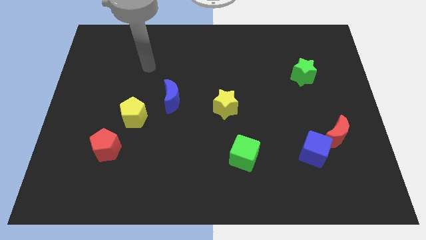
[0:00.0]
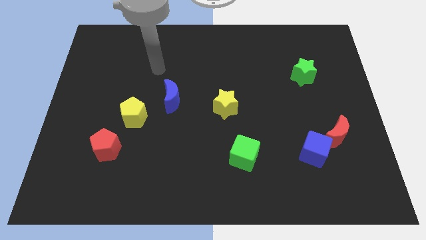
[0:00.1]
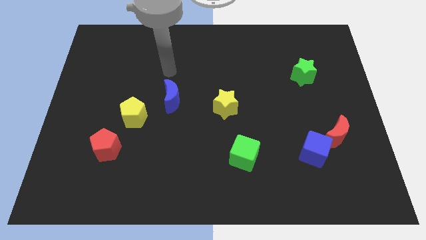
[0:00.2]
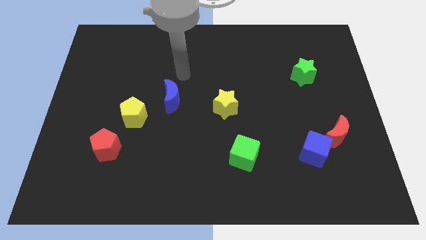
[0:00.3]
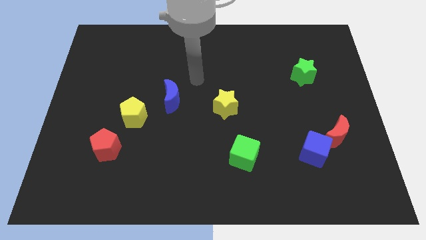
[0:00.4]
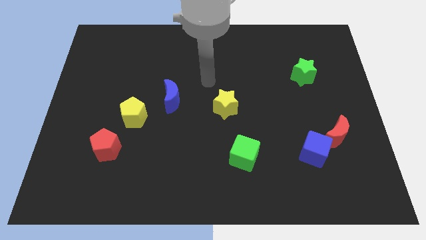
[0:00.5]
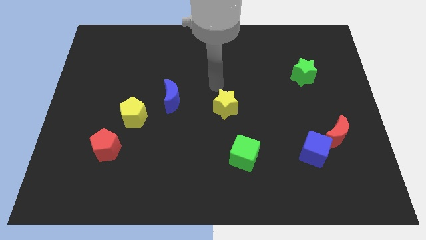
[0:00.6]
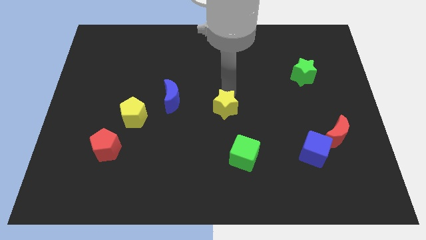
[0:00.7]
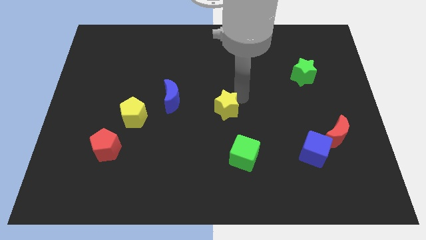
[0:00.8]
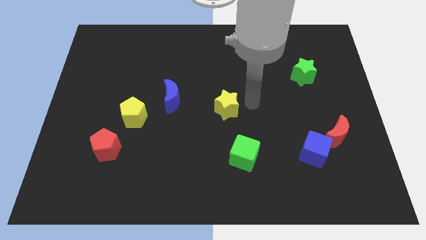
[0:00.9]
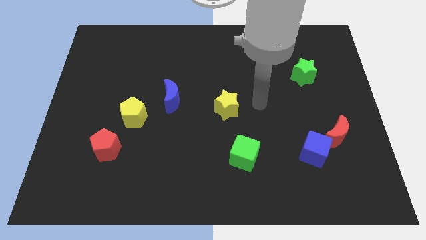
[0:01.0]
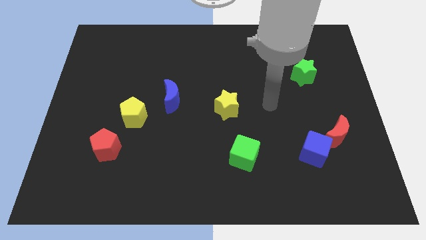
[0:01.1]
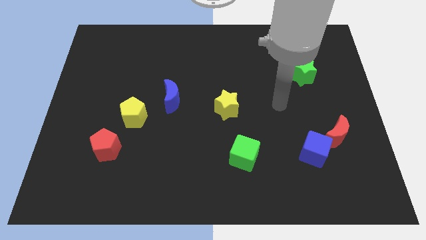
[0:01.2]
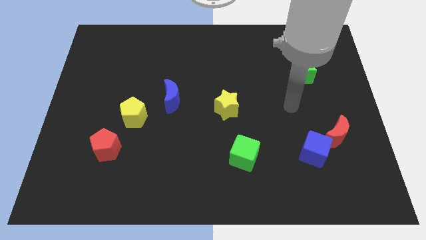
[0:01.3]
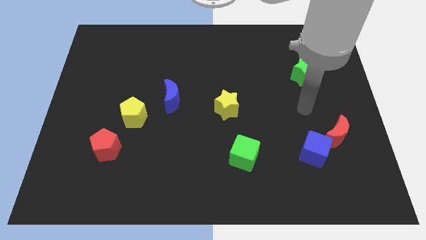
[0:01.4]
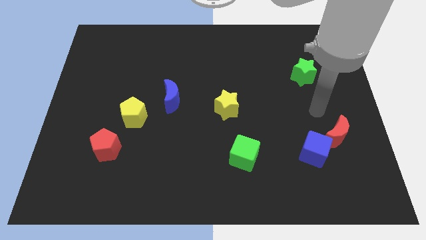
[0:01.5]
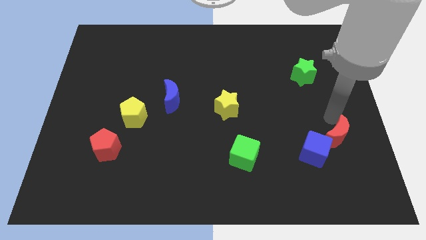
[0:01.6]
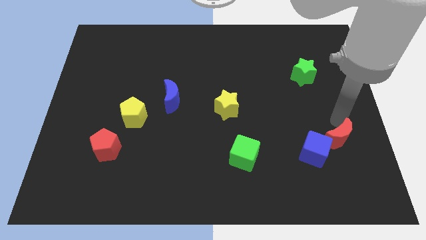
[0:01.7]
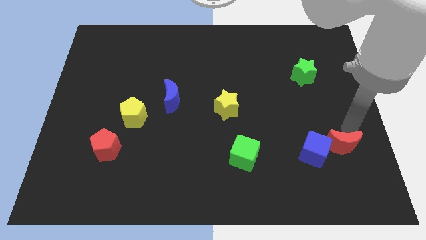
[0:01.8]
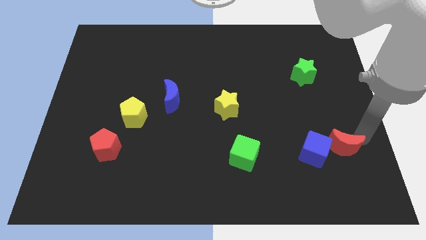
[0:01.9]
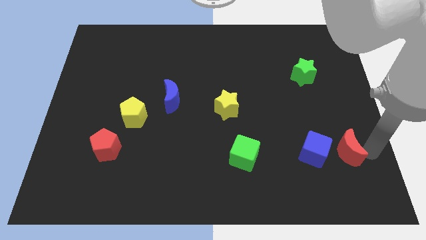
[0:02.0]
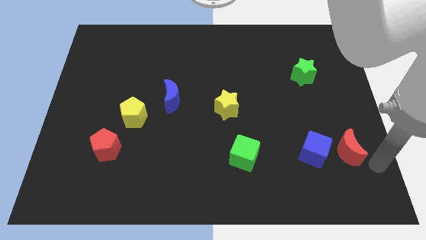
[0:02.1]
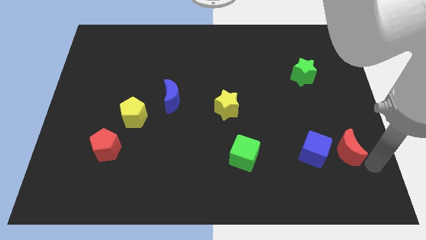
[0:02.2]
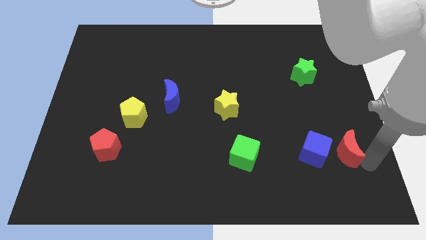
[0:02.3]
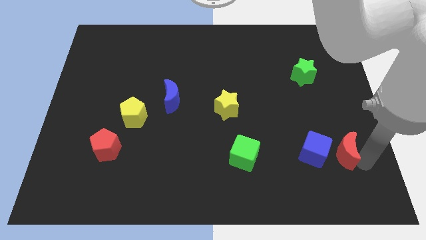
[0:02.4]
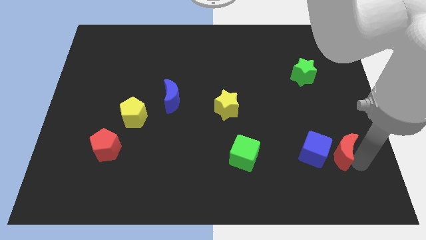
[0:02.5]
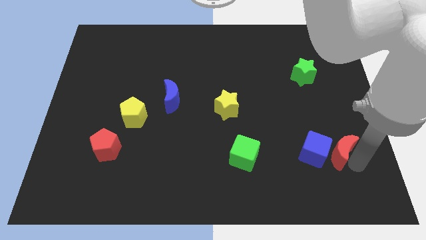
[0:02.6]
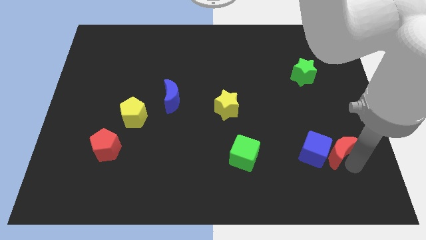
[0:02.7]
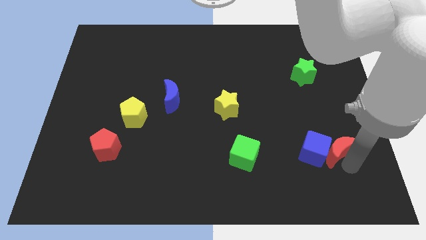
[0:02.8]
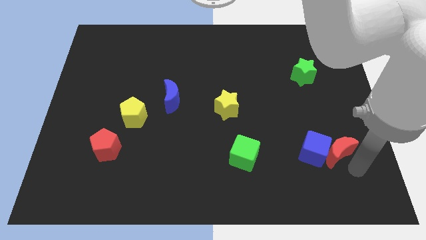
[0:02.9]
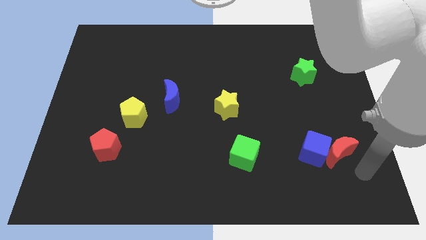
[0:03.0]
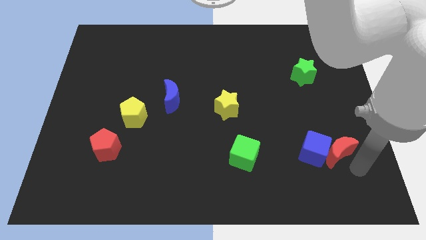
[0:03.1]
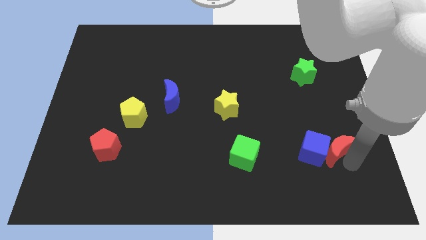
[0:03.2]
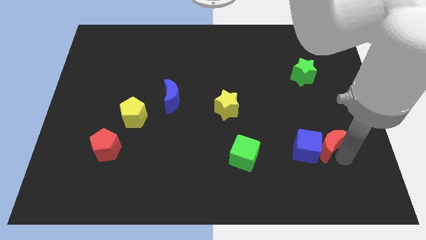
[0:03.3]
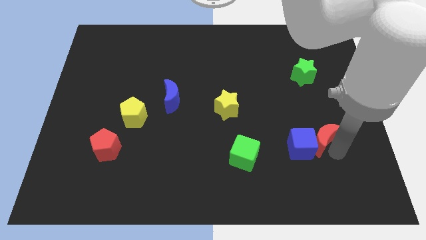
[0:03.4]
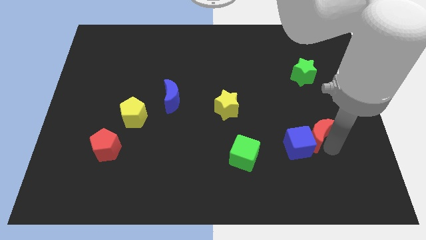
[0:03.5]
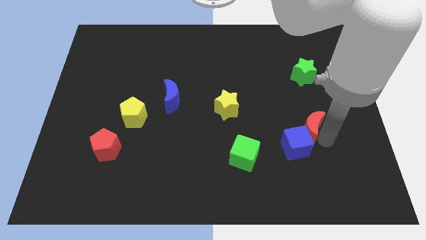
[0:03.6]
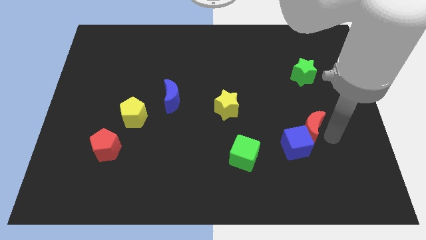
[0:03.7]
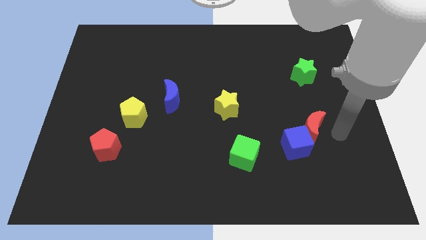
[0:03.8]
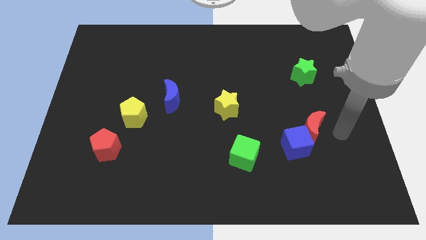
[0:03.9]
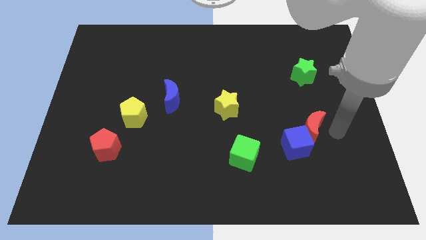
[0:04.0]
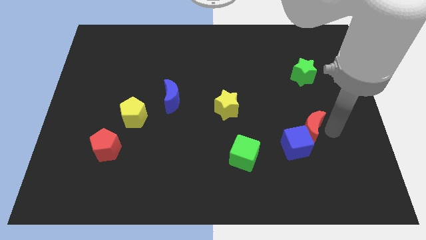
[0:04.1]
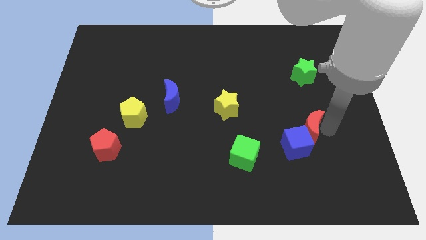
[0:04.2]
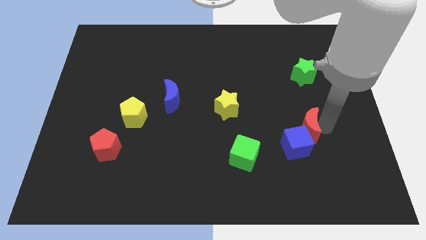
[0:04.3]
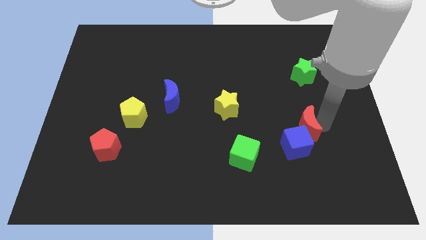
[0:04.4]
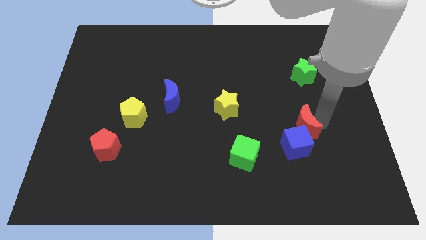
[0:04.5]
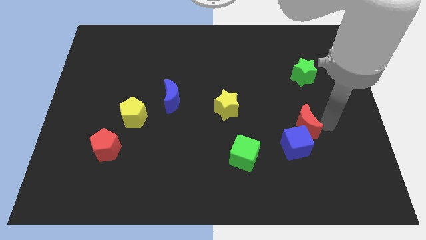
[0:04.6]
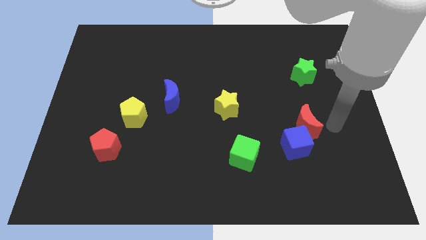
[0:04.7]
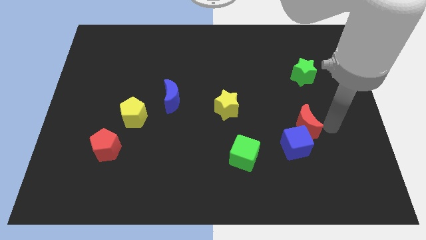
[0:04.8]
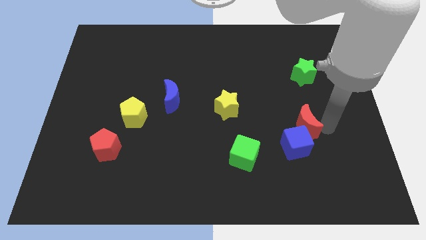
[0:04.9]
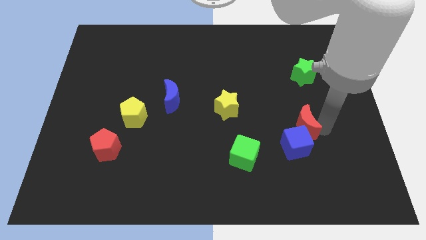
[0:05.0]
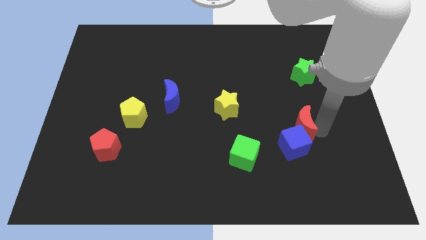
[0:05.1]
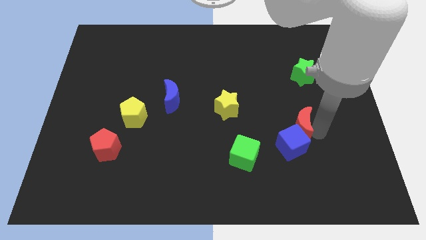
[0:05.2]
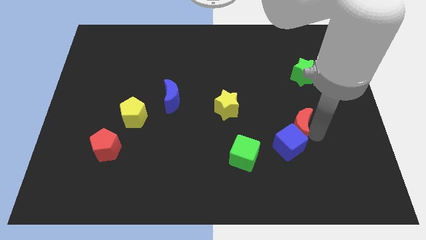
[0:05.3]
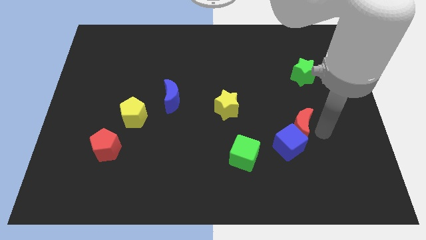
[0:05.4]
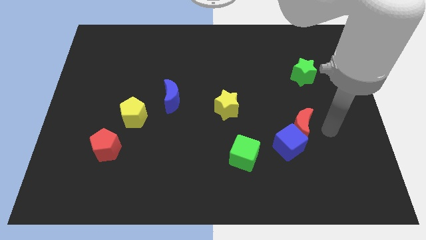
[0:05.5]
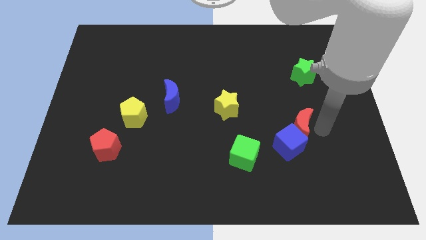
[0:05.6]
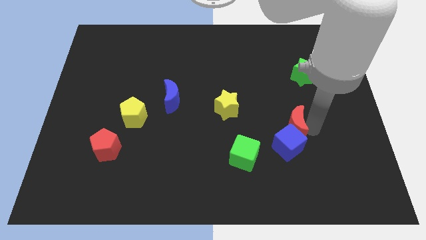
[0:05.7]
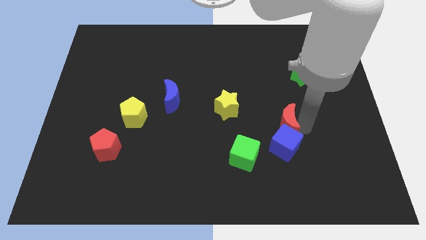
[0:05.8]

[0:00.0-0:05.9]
push the red moon diagonally up and to the left of the blue cube
